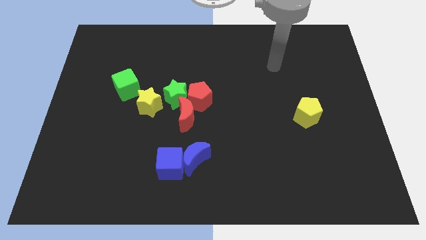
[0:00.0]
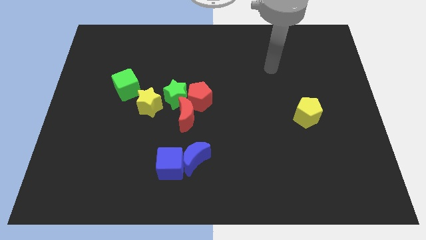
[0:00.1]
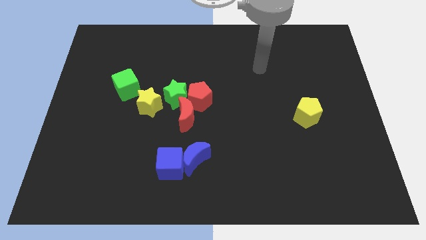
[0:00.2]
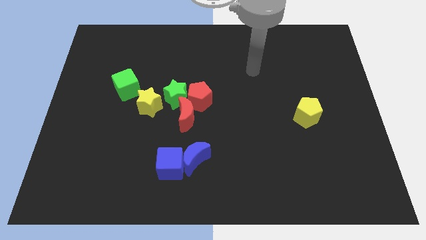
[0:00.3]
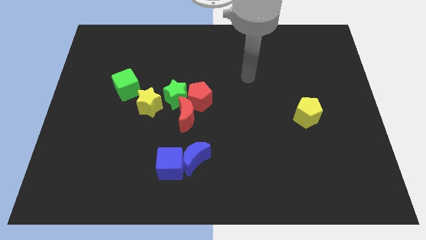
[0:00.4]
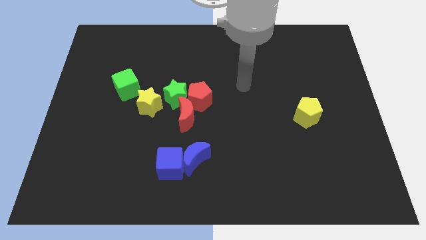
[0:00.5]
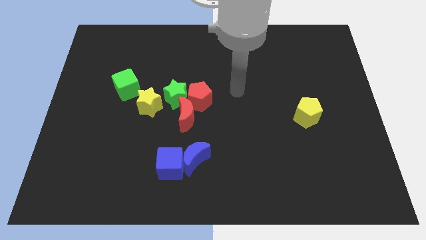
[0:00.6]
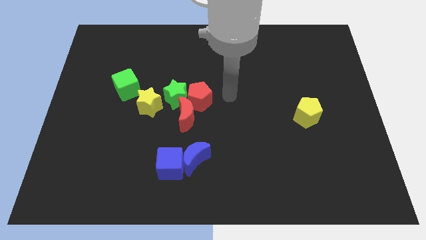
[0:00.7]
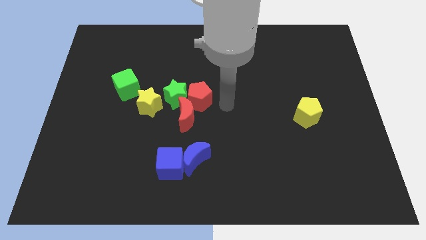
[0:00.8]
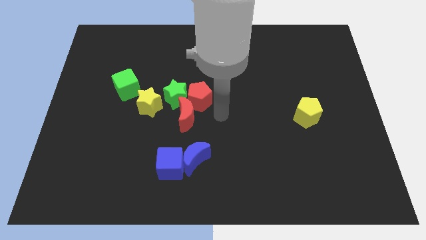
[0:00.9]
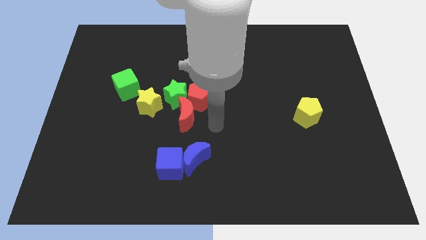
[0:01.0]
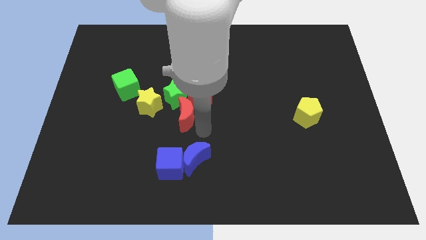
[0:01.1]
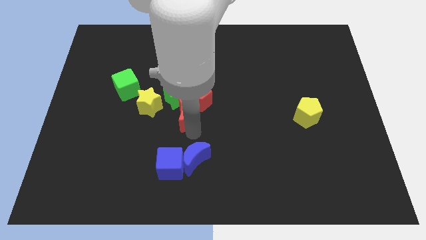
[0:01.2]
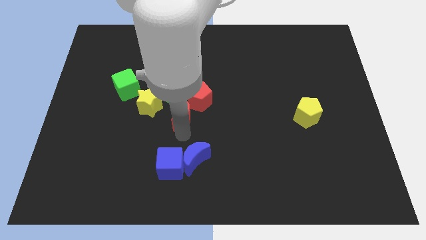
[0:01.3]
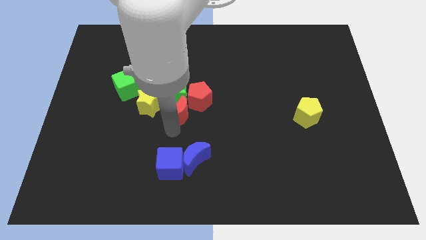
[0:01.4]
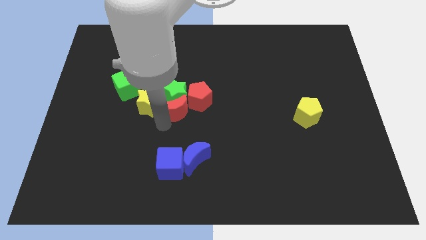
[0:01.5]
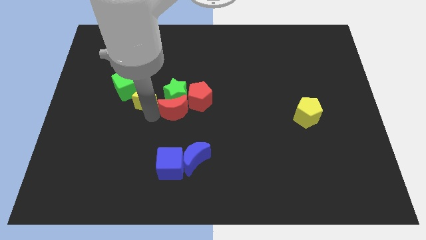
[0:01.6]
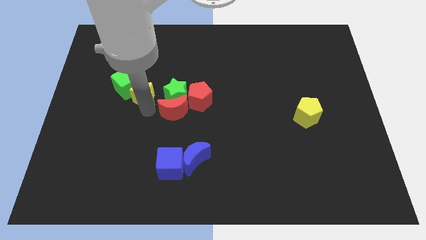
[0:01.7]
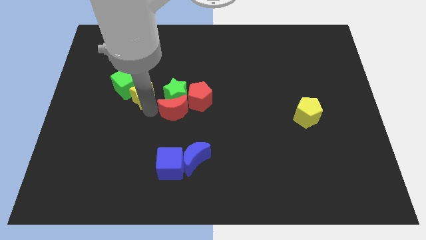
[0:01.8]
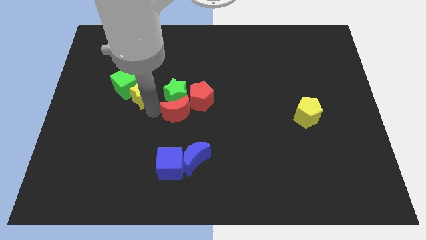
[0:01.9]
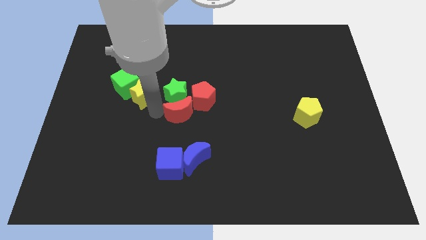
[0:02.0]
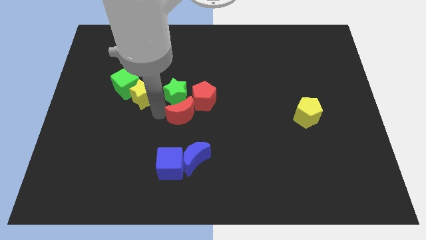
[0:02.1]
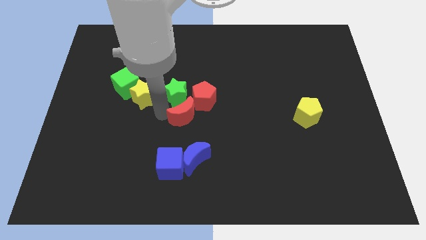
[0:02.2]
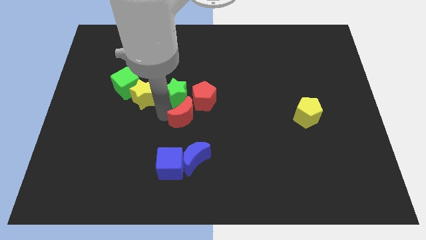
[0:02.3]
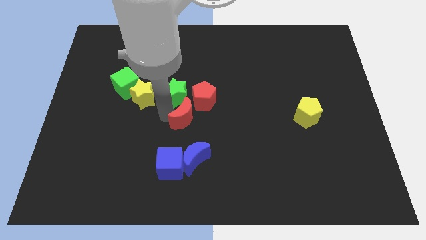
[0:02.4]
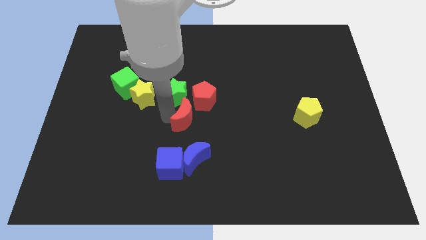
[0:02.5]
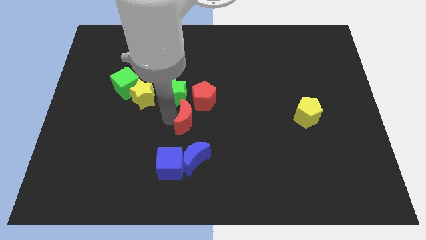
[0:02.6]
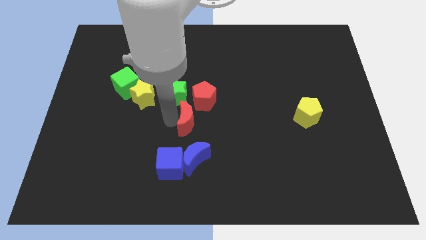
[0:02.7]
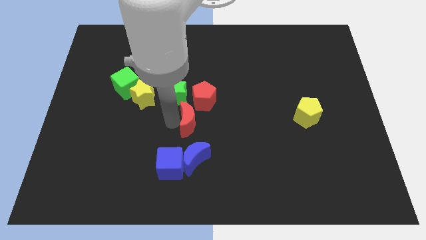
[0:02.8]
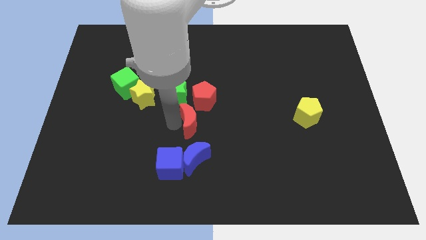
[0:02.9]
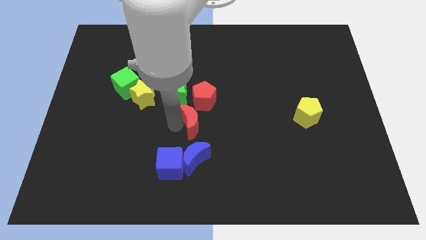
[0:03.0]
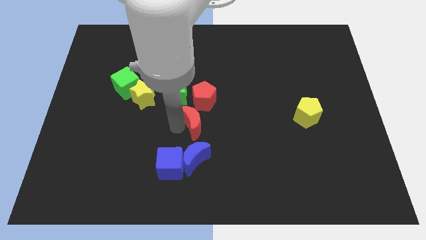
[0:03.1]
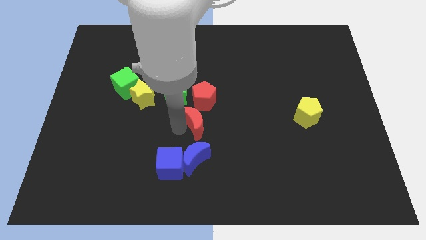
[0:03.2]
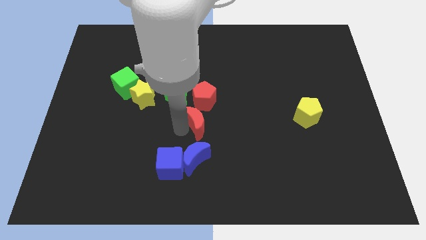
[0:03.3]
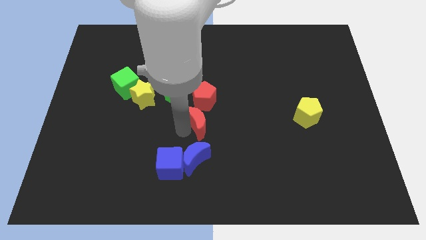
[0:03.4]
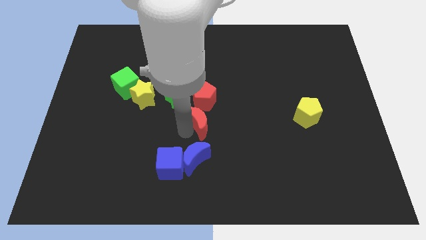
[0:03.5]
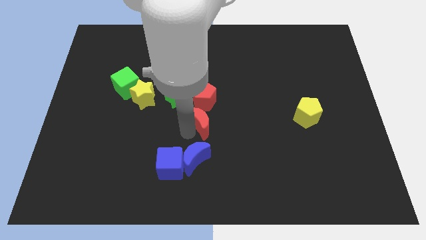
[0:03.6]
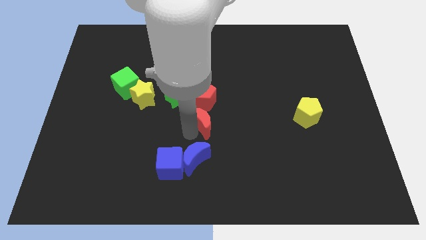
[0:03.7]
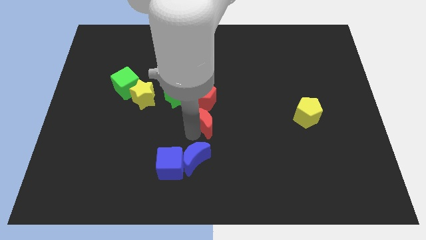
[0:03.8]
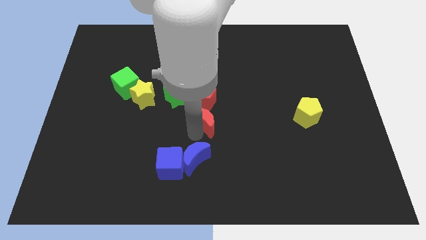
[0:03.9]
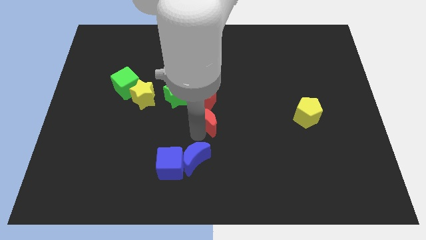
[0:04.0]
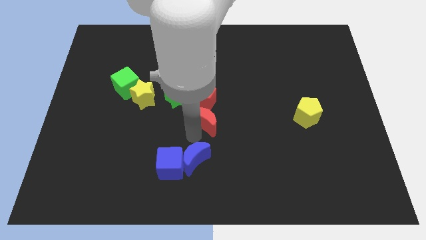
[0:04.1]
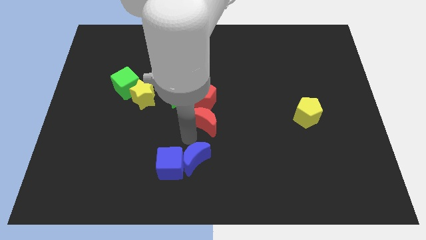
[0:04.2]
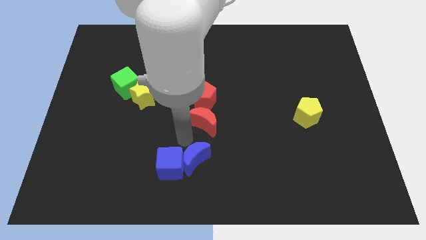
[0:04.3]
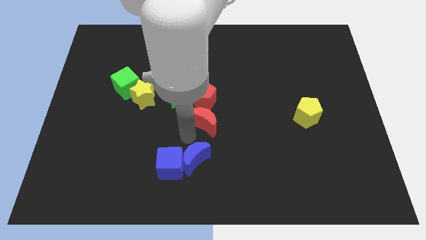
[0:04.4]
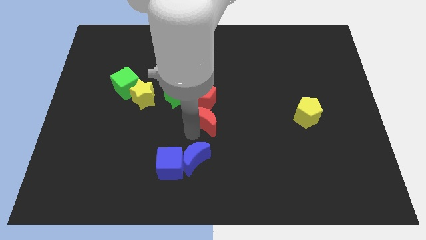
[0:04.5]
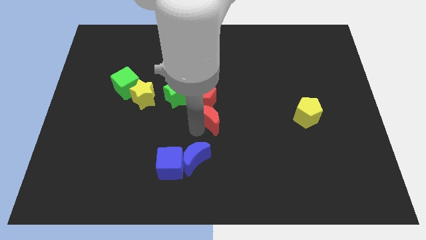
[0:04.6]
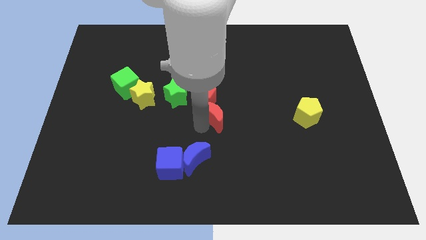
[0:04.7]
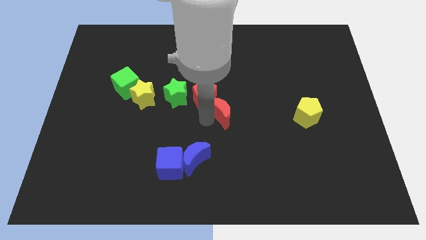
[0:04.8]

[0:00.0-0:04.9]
push the red moon to the right a bit

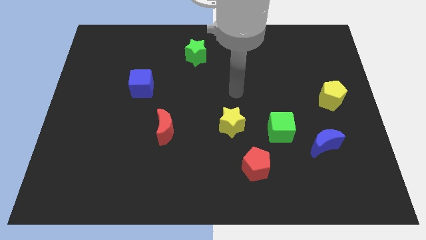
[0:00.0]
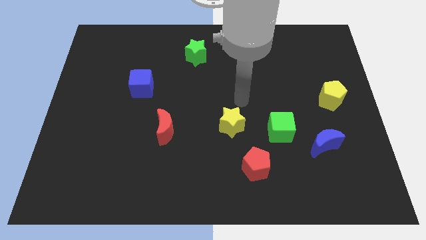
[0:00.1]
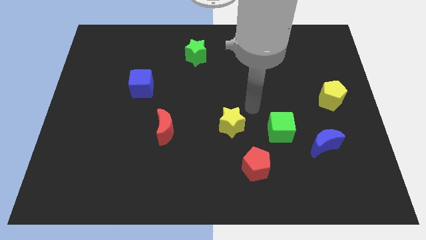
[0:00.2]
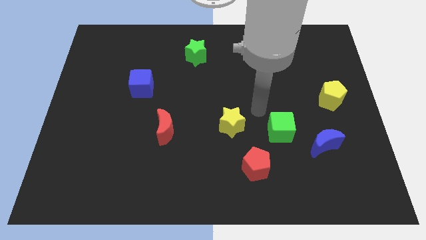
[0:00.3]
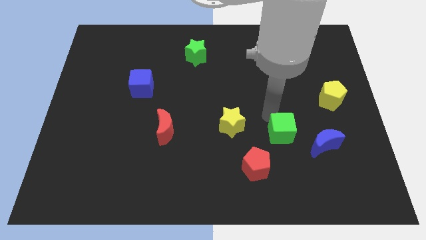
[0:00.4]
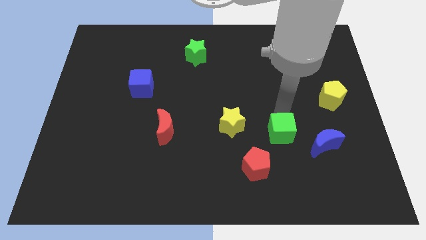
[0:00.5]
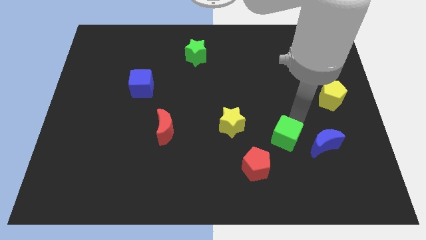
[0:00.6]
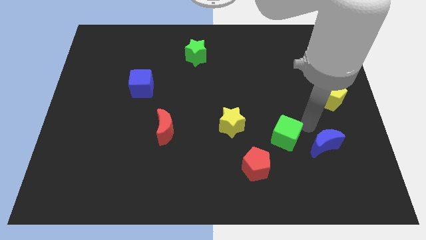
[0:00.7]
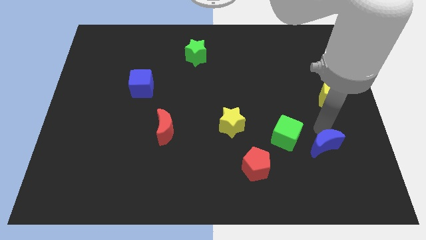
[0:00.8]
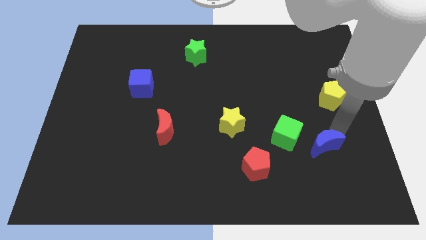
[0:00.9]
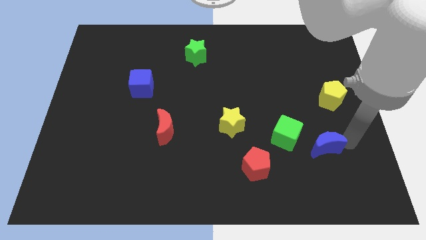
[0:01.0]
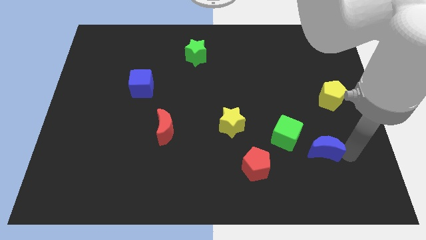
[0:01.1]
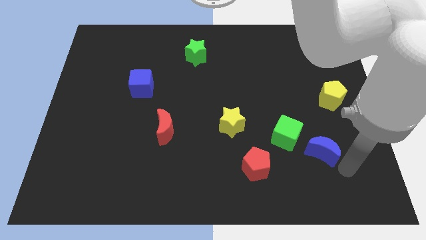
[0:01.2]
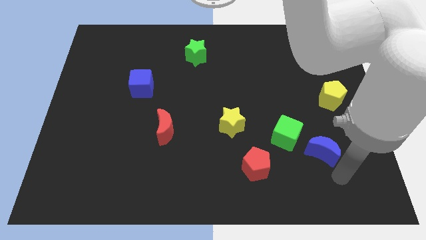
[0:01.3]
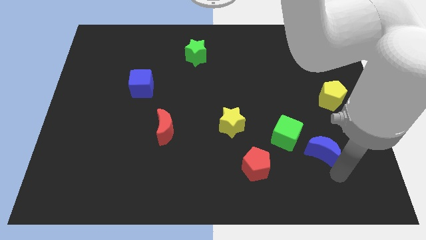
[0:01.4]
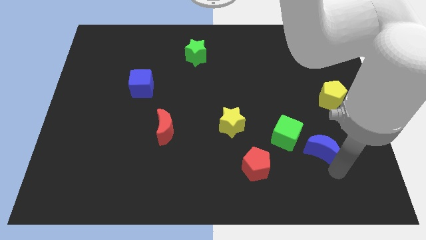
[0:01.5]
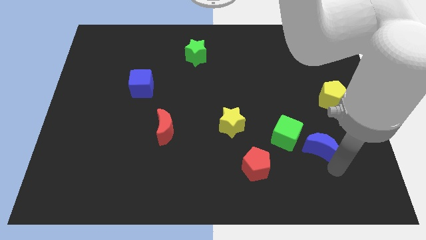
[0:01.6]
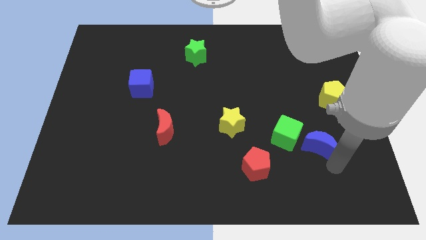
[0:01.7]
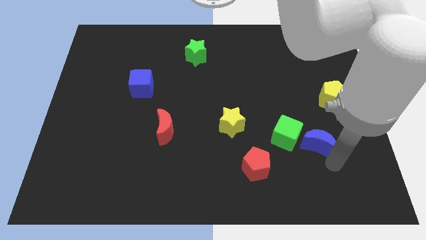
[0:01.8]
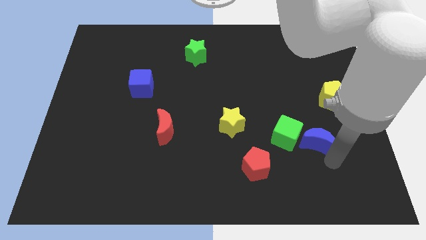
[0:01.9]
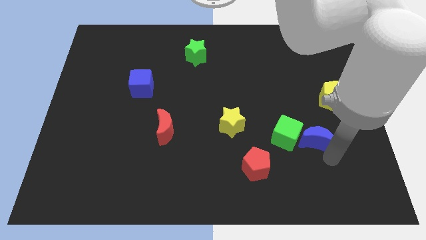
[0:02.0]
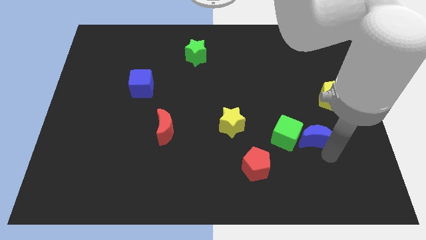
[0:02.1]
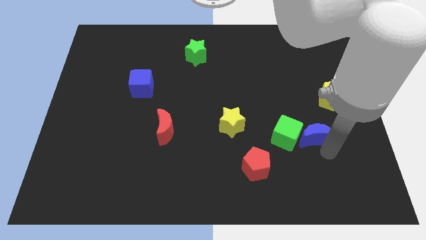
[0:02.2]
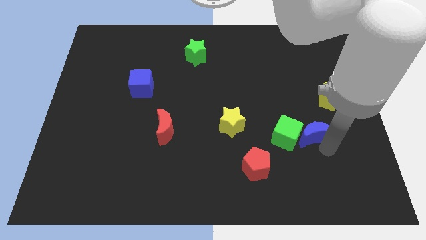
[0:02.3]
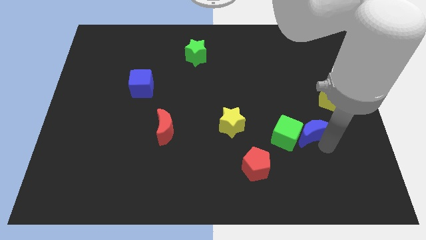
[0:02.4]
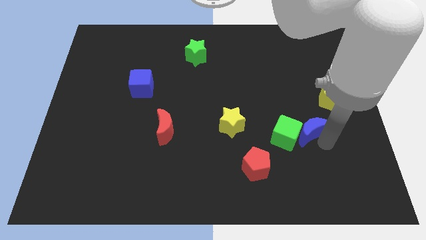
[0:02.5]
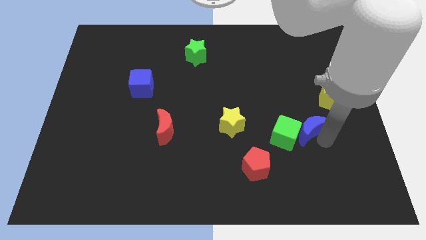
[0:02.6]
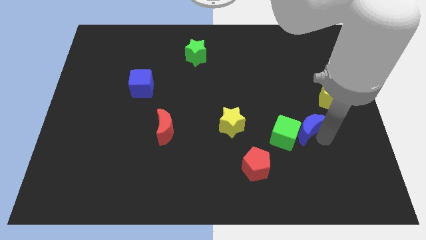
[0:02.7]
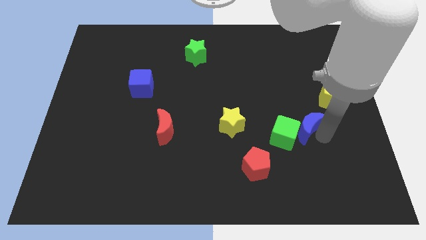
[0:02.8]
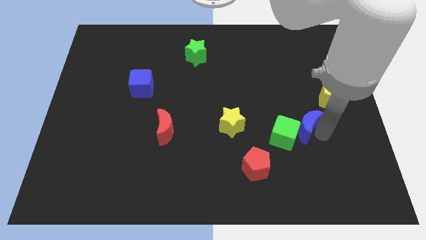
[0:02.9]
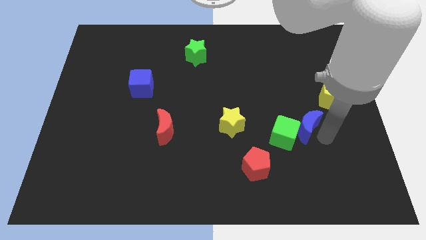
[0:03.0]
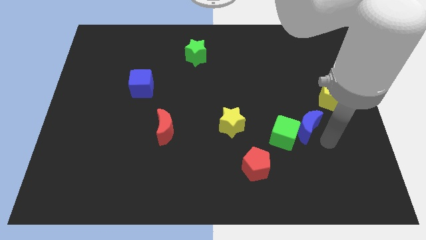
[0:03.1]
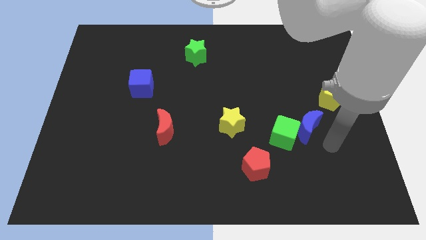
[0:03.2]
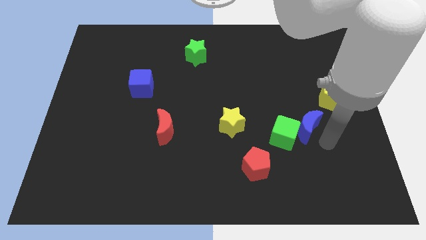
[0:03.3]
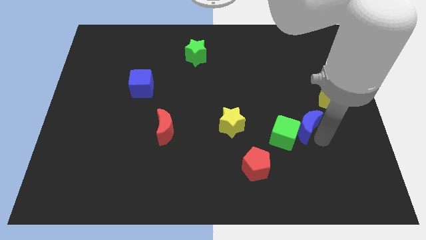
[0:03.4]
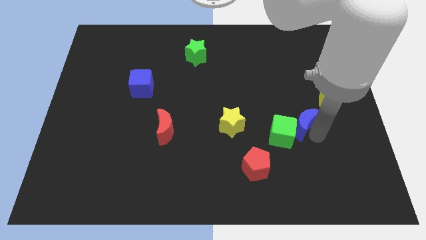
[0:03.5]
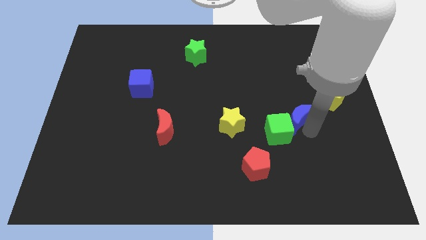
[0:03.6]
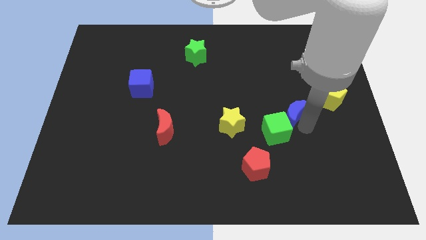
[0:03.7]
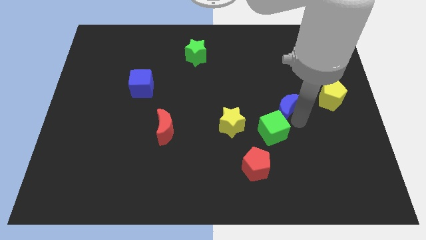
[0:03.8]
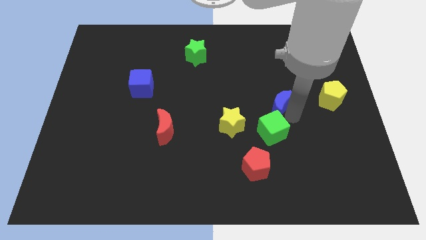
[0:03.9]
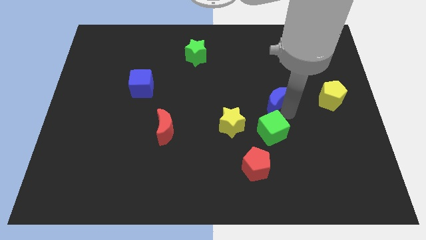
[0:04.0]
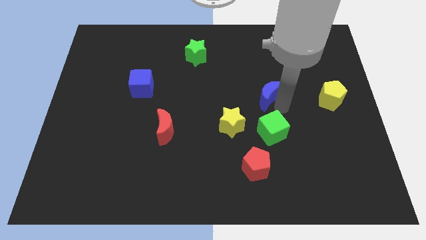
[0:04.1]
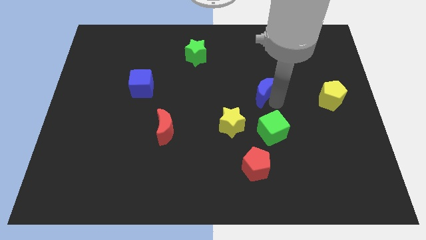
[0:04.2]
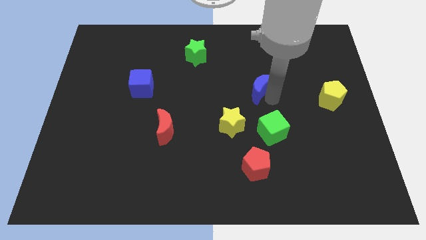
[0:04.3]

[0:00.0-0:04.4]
slide the blue moon diagonally upwards and left
